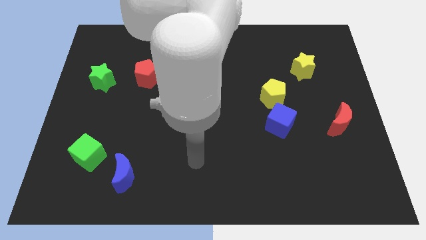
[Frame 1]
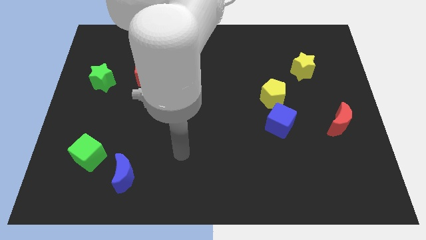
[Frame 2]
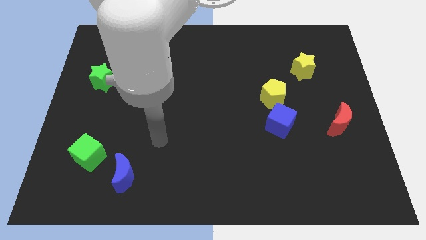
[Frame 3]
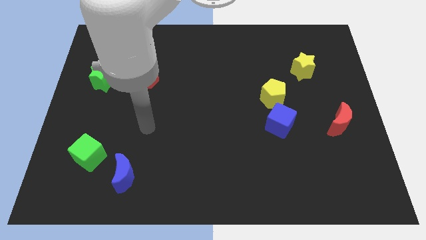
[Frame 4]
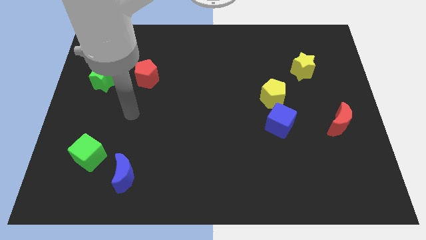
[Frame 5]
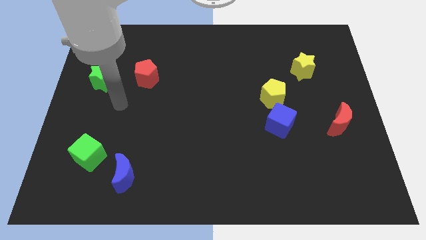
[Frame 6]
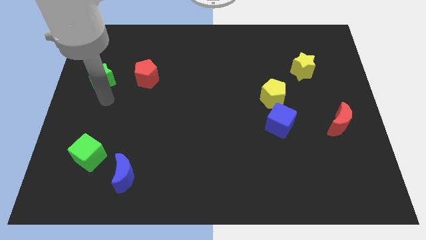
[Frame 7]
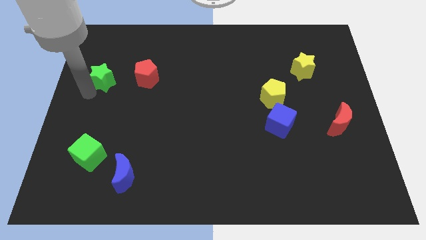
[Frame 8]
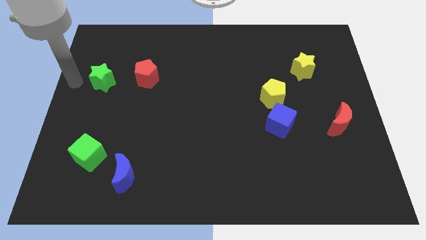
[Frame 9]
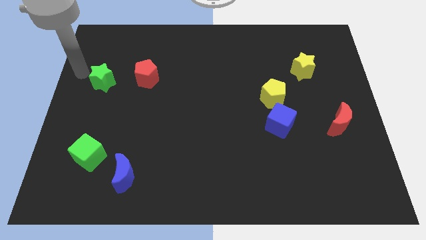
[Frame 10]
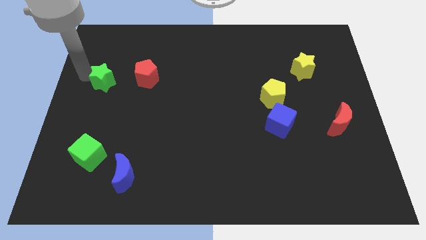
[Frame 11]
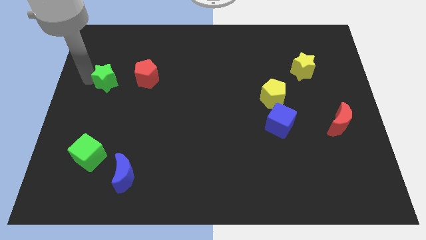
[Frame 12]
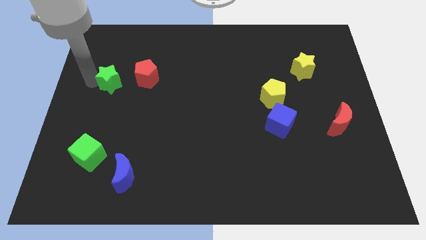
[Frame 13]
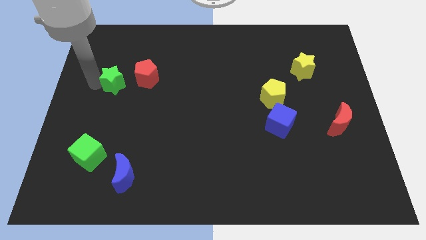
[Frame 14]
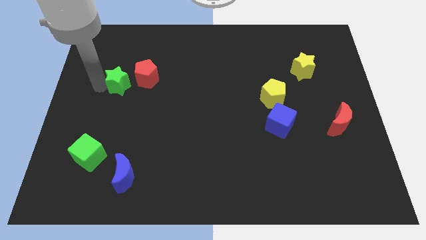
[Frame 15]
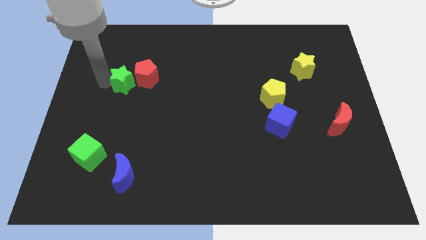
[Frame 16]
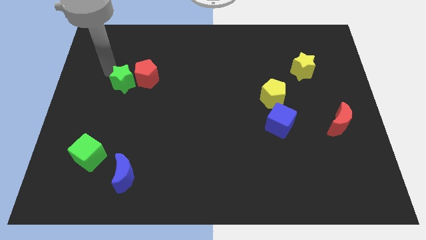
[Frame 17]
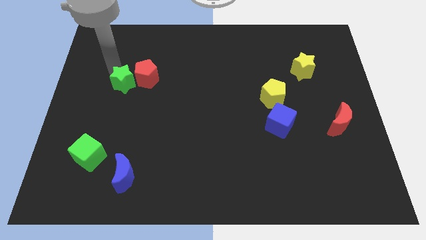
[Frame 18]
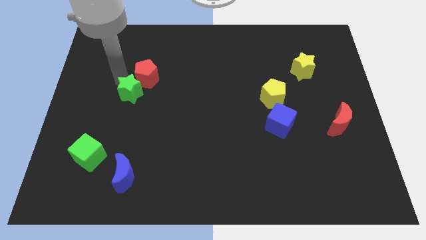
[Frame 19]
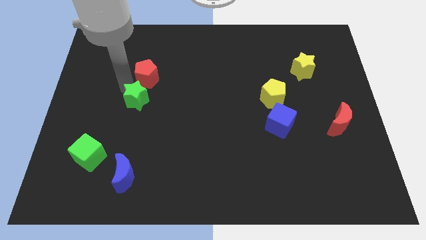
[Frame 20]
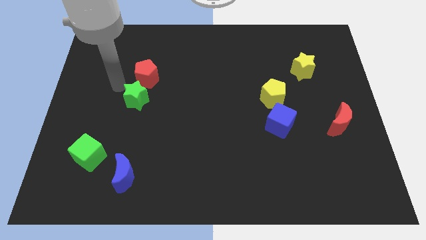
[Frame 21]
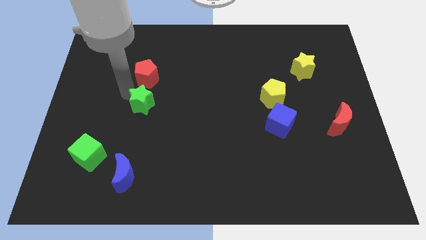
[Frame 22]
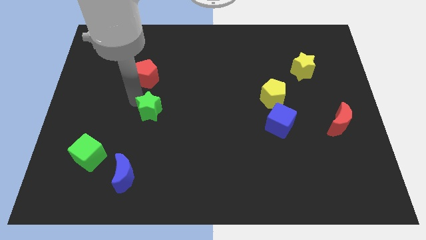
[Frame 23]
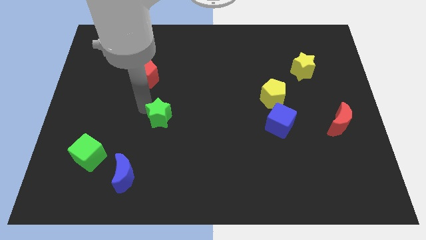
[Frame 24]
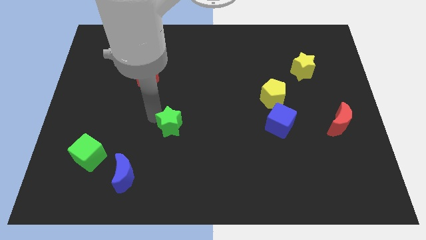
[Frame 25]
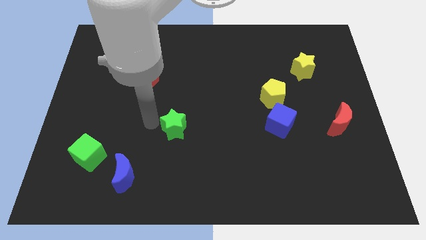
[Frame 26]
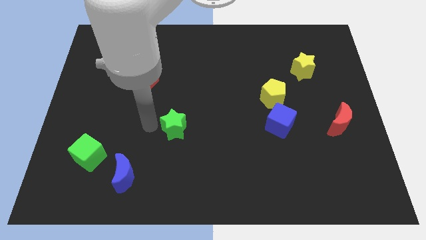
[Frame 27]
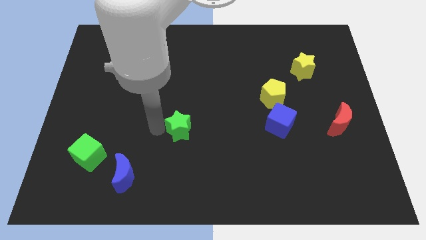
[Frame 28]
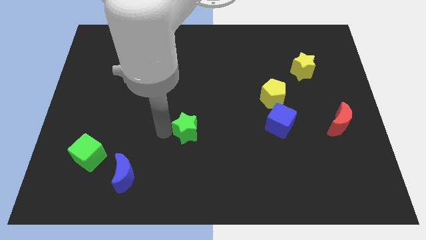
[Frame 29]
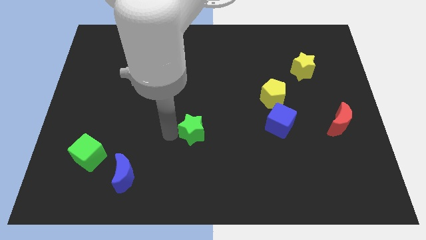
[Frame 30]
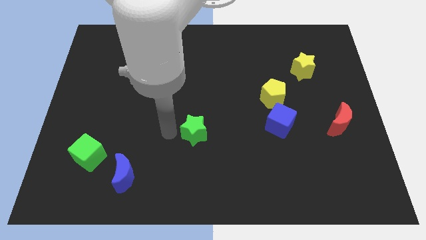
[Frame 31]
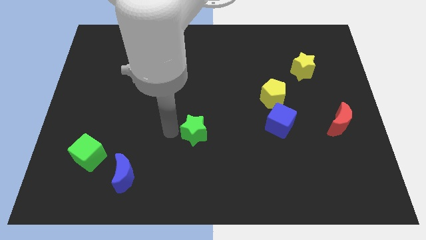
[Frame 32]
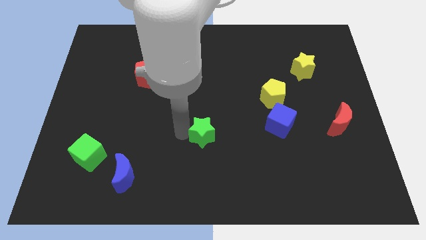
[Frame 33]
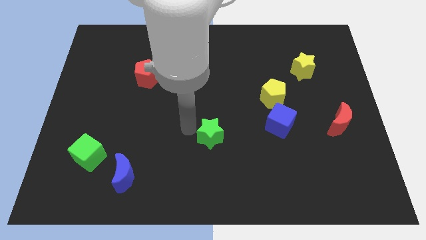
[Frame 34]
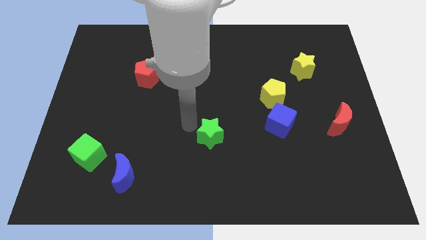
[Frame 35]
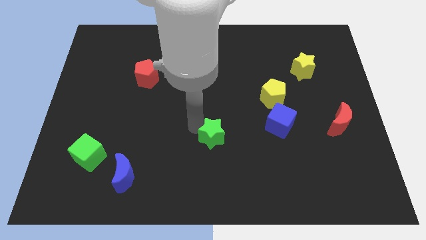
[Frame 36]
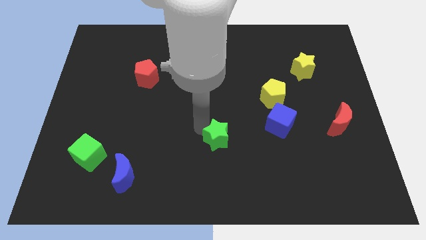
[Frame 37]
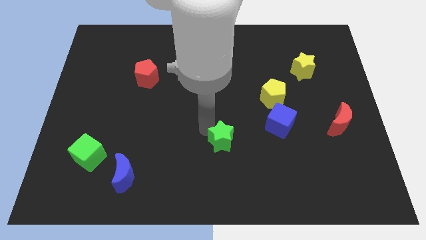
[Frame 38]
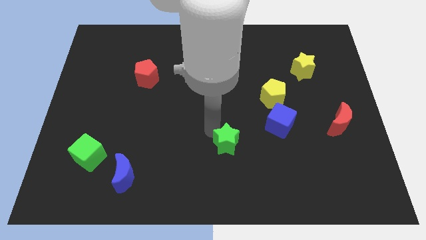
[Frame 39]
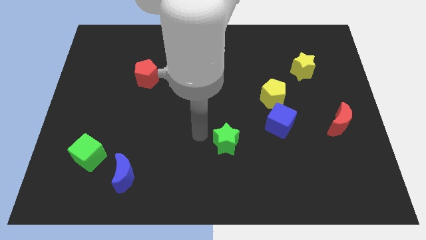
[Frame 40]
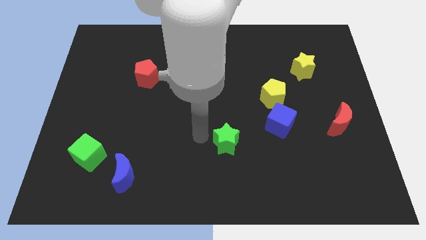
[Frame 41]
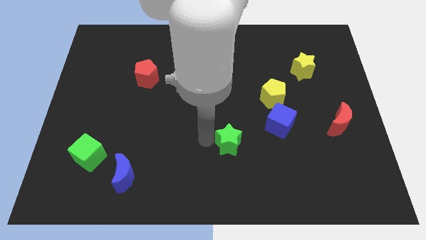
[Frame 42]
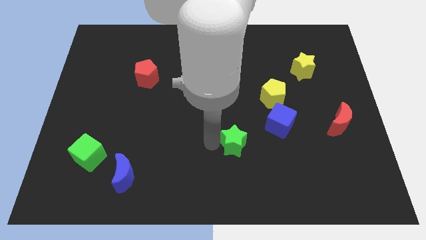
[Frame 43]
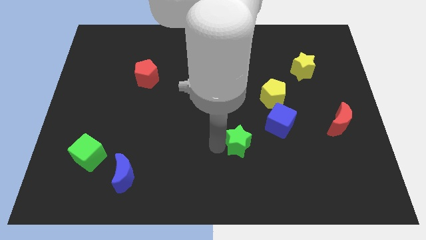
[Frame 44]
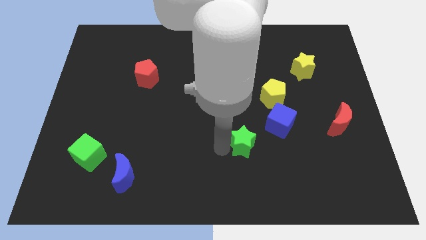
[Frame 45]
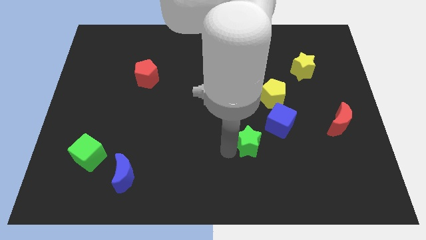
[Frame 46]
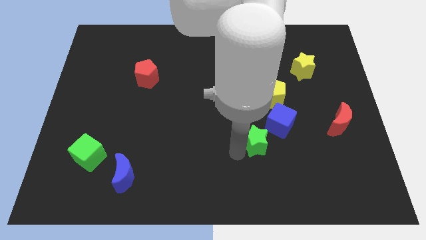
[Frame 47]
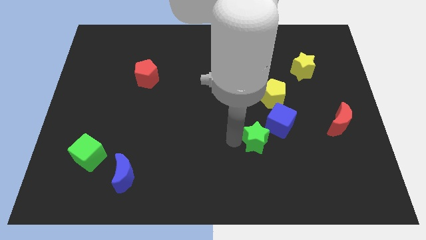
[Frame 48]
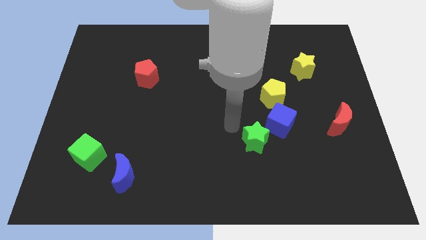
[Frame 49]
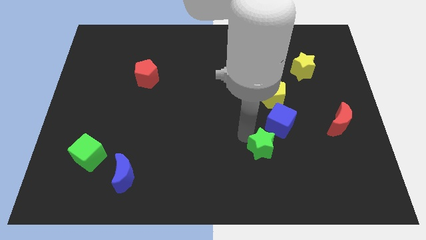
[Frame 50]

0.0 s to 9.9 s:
slide the green star to the bottom side of the blue cube

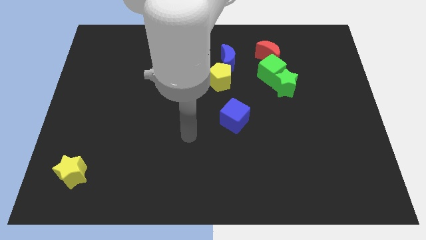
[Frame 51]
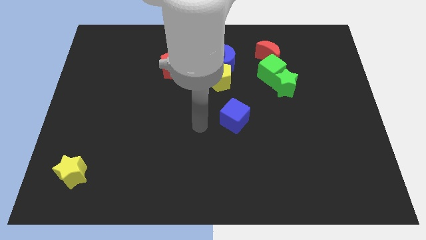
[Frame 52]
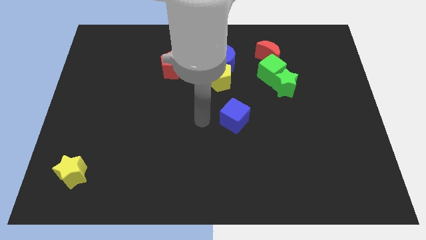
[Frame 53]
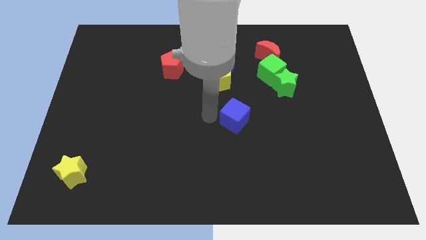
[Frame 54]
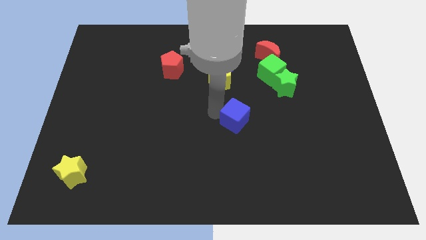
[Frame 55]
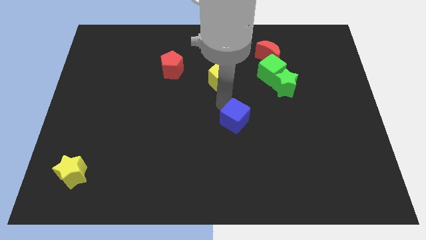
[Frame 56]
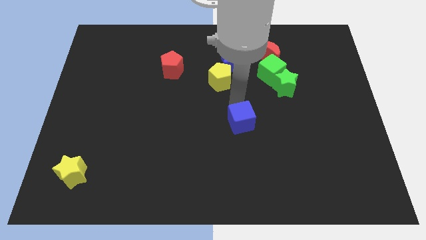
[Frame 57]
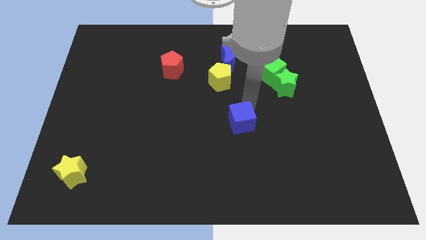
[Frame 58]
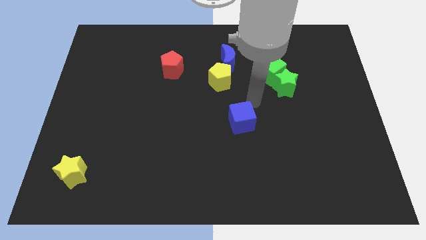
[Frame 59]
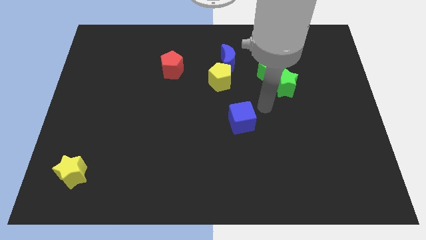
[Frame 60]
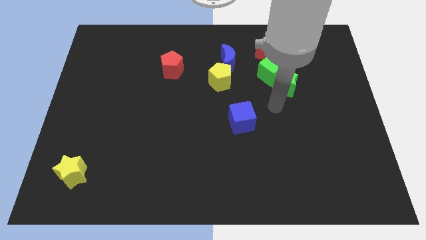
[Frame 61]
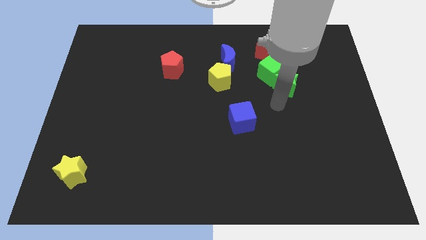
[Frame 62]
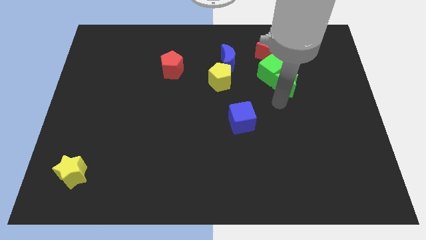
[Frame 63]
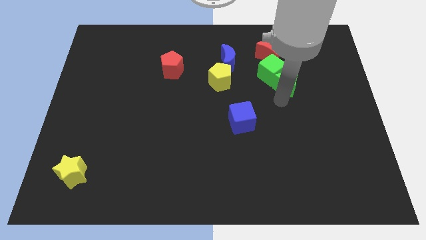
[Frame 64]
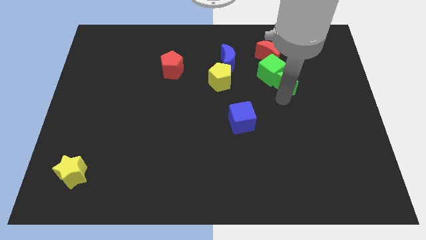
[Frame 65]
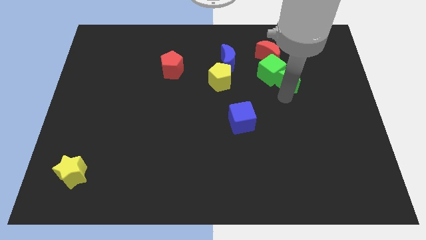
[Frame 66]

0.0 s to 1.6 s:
slide the green star to the bottom right side of the red moon
